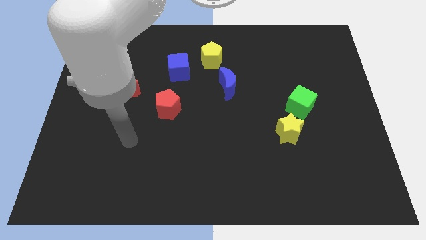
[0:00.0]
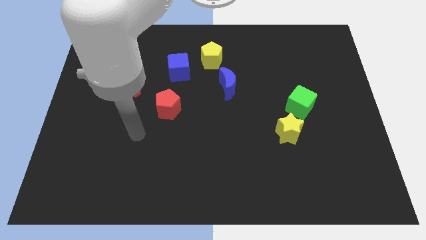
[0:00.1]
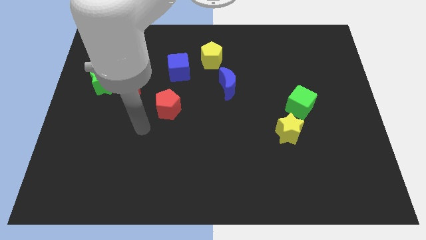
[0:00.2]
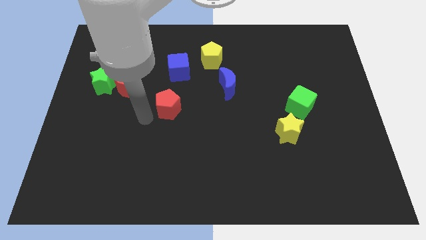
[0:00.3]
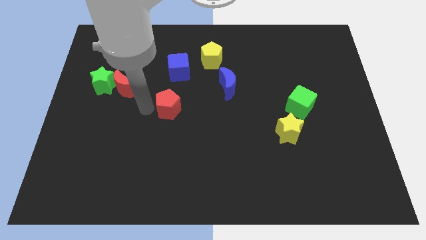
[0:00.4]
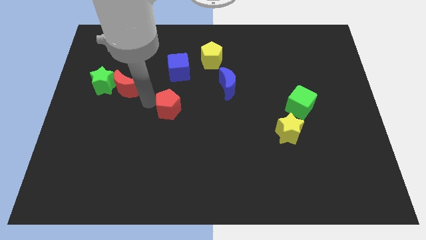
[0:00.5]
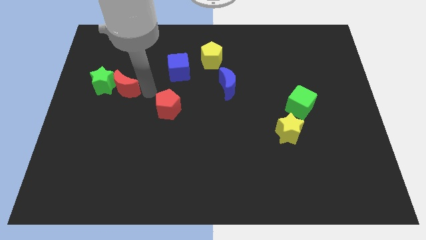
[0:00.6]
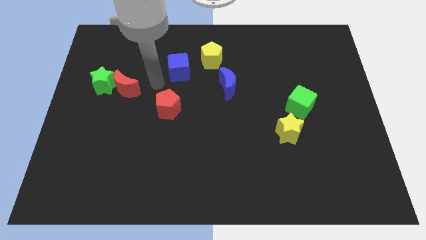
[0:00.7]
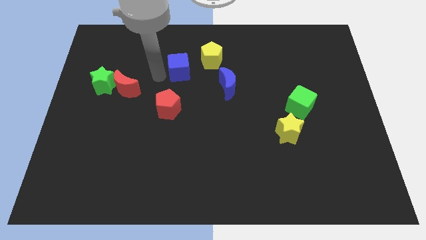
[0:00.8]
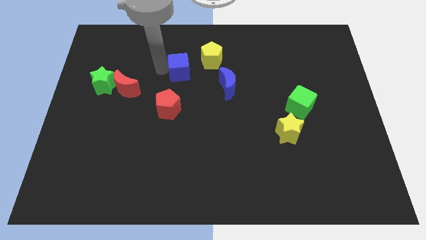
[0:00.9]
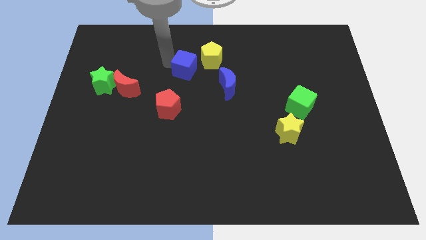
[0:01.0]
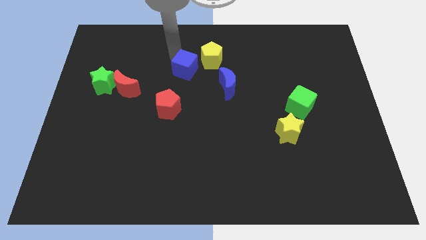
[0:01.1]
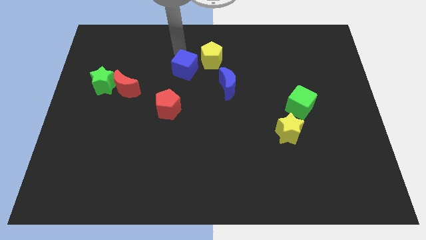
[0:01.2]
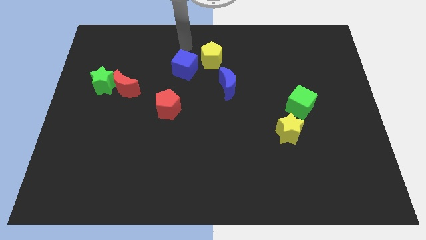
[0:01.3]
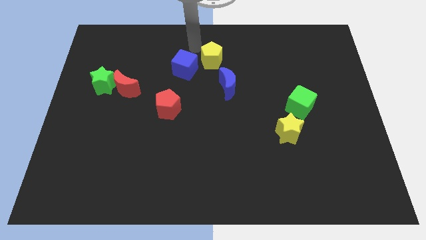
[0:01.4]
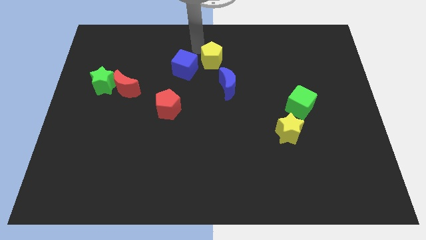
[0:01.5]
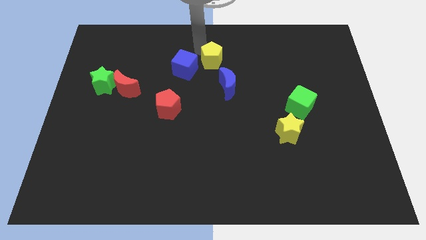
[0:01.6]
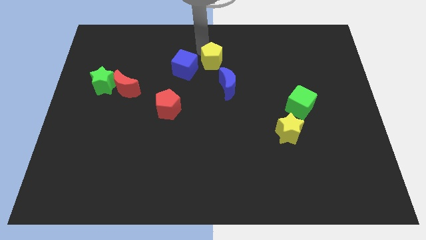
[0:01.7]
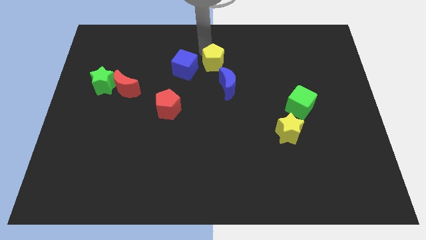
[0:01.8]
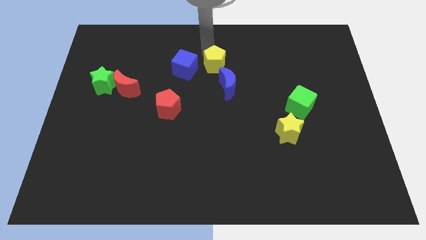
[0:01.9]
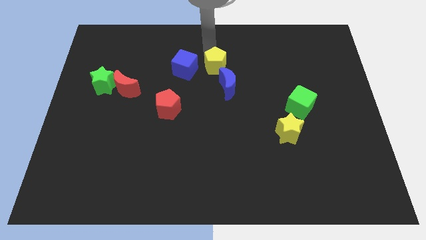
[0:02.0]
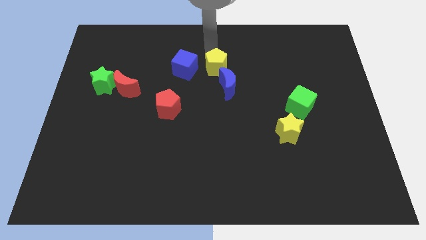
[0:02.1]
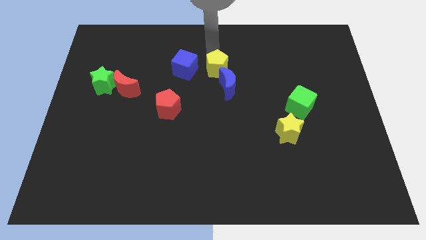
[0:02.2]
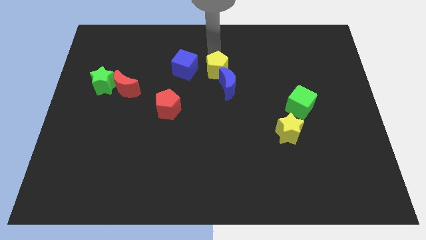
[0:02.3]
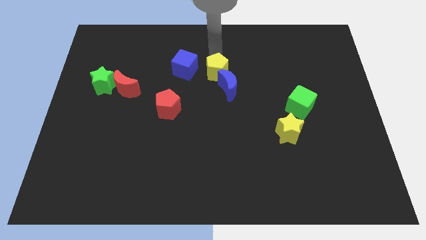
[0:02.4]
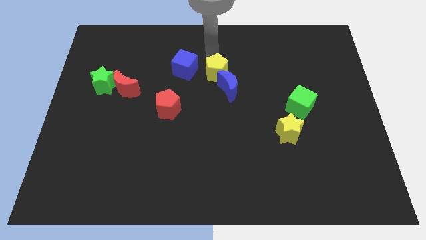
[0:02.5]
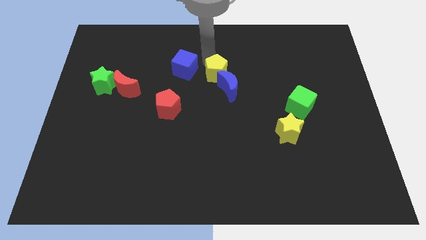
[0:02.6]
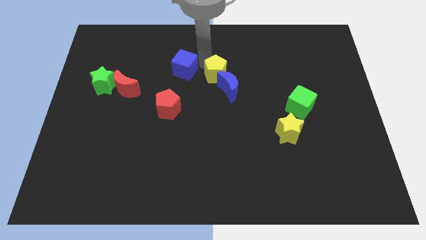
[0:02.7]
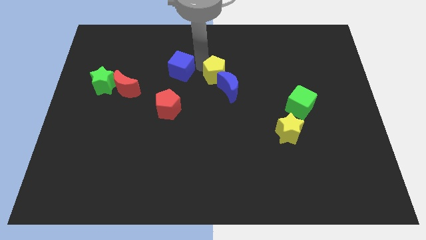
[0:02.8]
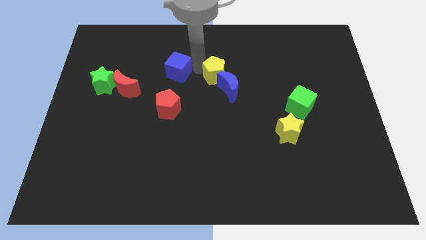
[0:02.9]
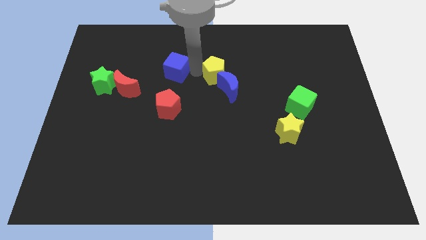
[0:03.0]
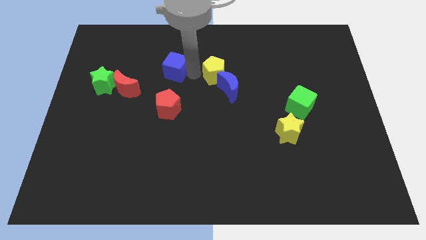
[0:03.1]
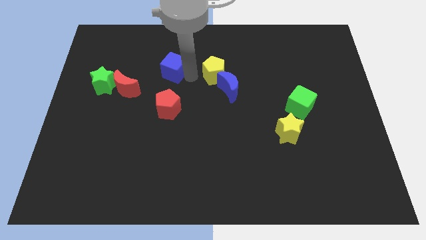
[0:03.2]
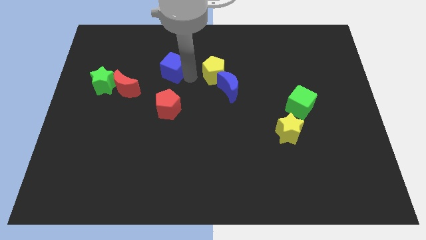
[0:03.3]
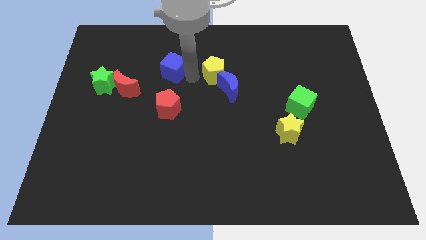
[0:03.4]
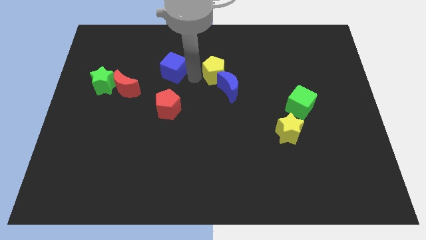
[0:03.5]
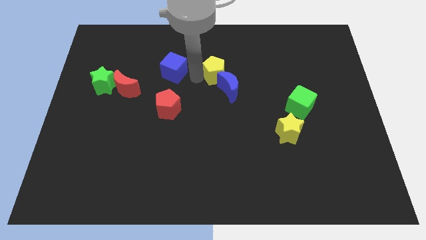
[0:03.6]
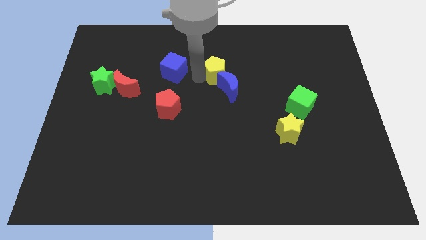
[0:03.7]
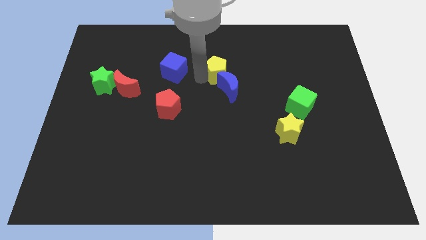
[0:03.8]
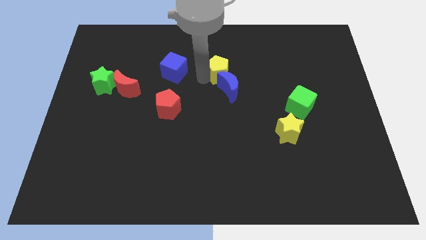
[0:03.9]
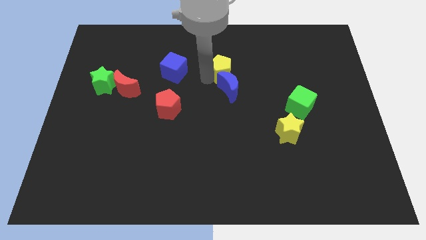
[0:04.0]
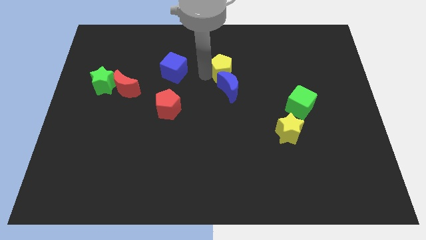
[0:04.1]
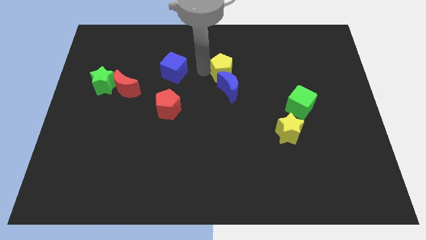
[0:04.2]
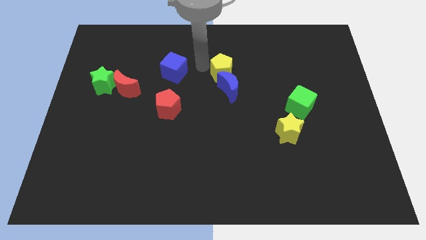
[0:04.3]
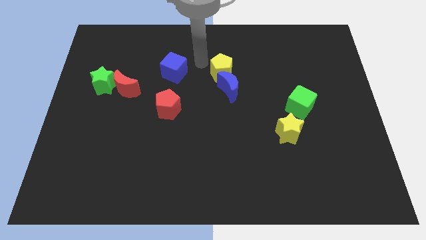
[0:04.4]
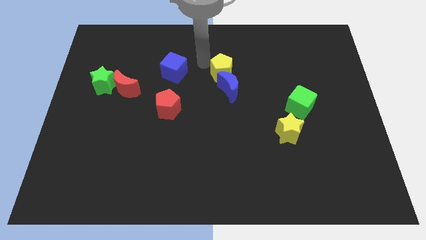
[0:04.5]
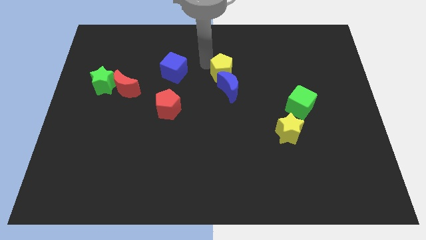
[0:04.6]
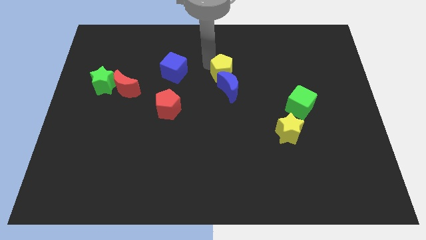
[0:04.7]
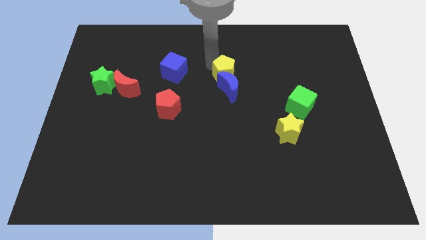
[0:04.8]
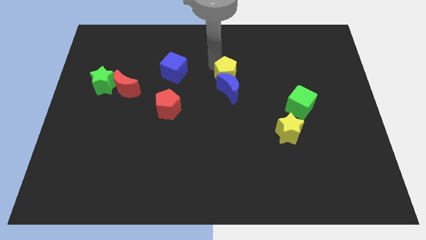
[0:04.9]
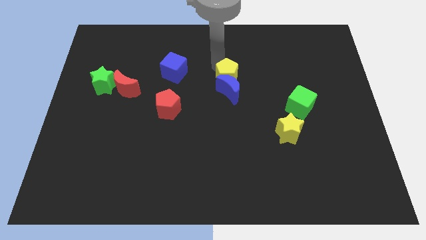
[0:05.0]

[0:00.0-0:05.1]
slightly slide the yellow pentagon down and to the right

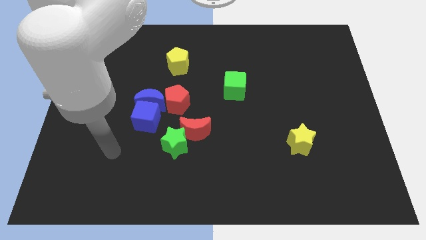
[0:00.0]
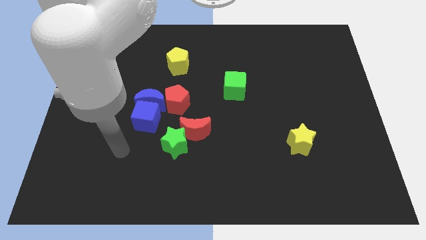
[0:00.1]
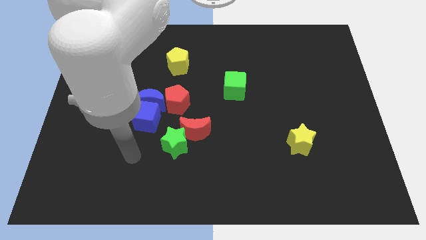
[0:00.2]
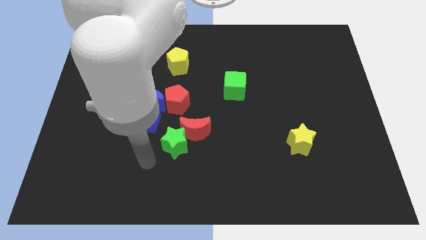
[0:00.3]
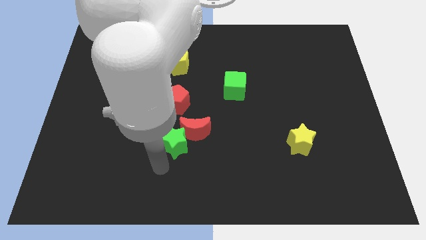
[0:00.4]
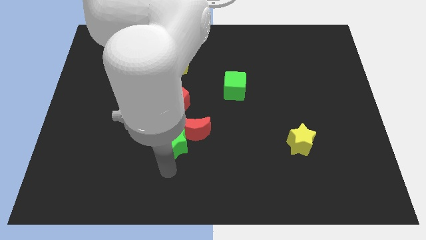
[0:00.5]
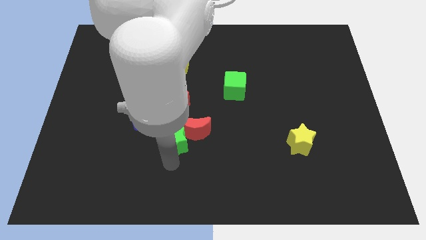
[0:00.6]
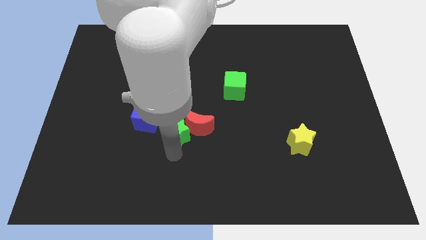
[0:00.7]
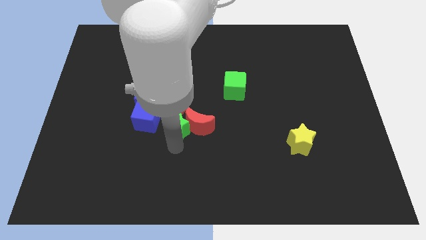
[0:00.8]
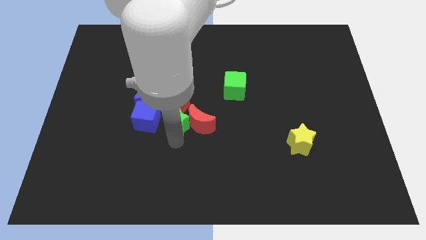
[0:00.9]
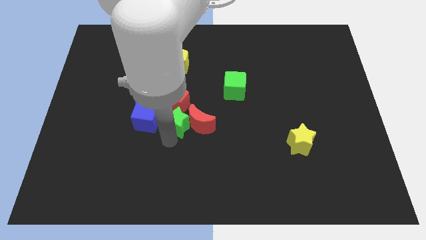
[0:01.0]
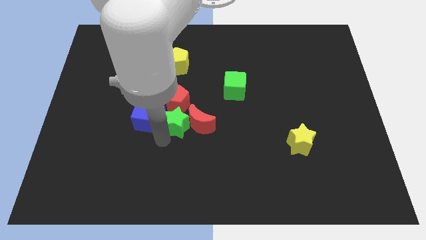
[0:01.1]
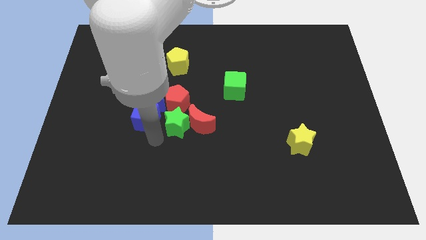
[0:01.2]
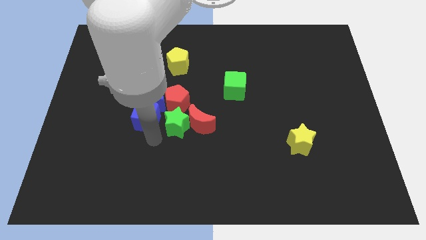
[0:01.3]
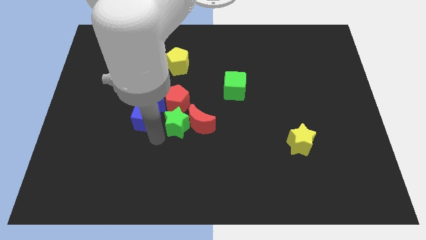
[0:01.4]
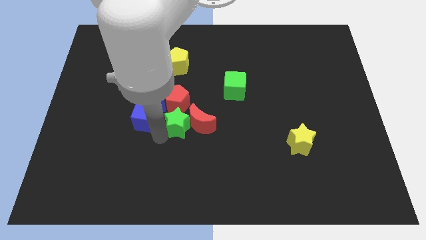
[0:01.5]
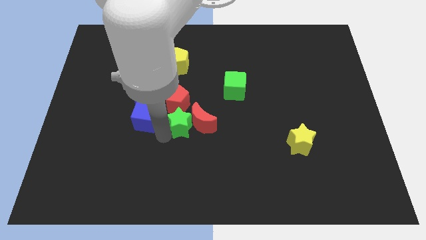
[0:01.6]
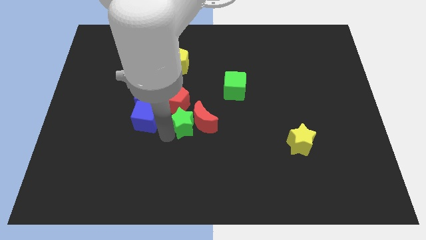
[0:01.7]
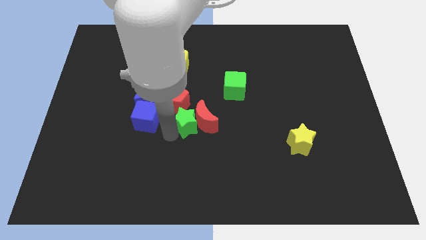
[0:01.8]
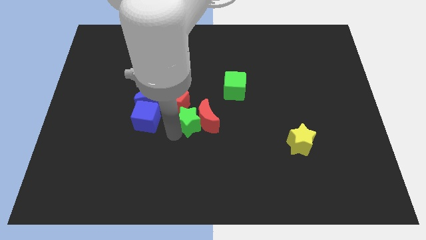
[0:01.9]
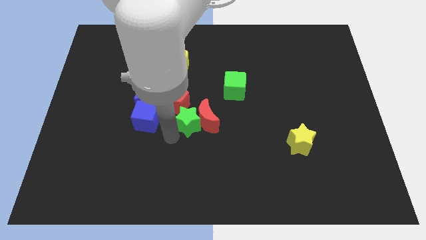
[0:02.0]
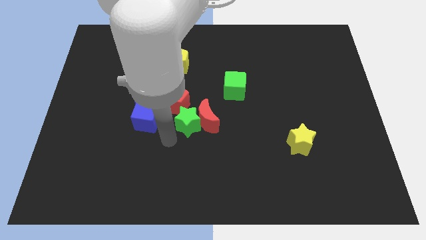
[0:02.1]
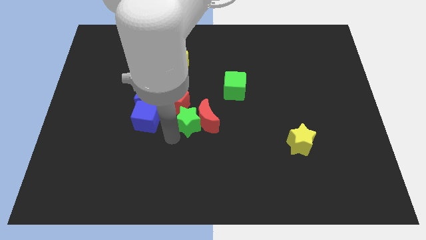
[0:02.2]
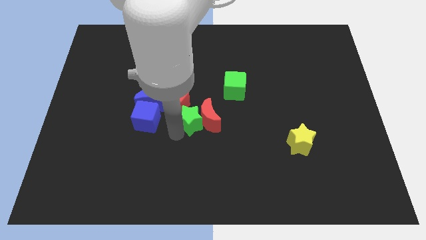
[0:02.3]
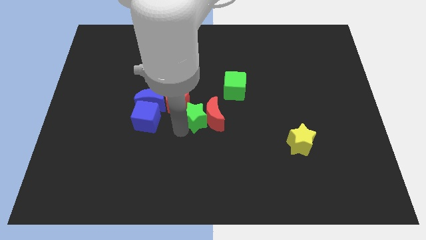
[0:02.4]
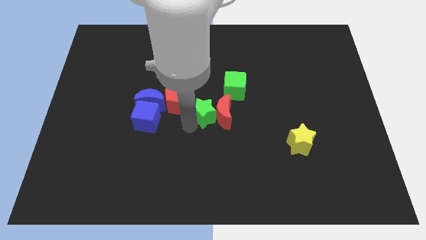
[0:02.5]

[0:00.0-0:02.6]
slide the green star upwards slightly

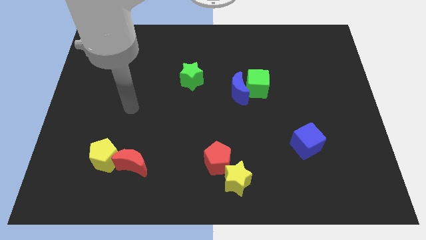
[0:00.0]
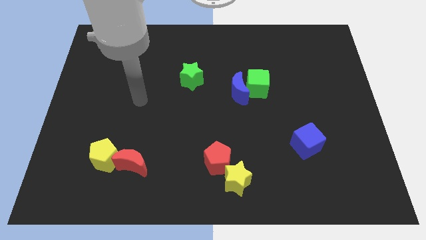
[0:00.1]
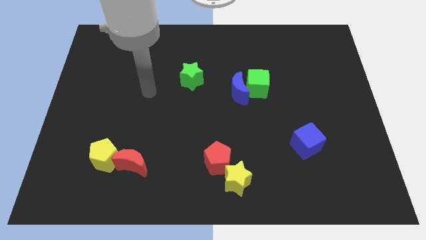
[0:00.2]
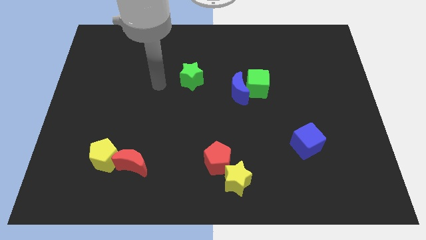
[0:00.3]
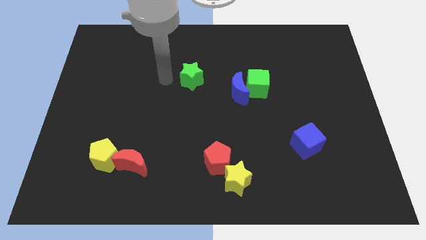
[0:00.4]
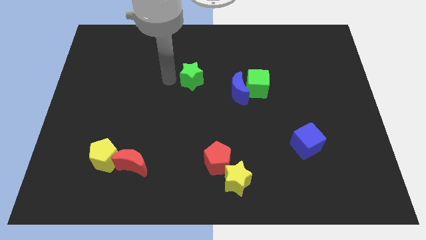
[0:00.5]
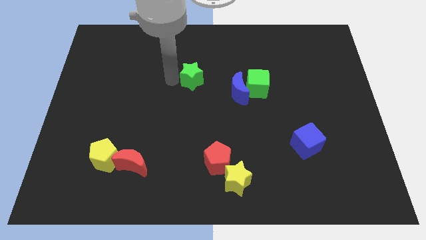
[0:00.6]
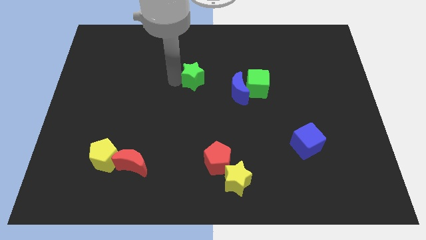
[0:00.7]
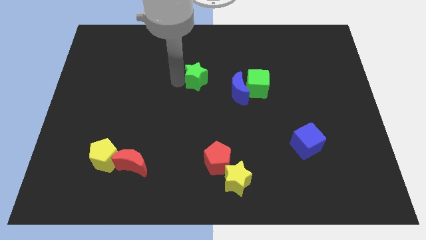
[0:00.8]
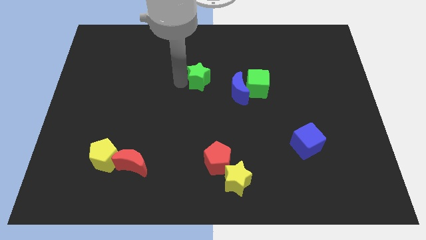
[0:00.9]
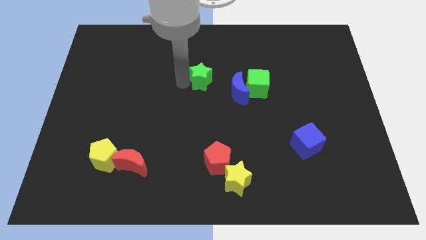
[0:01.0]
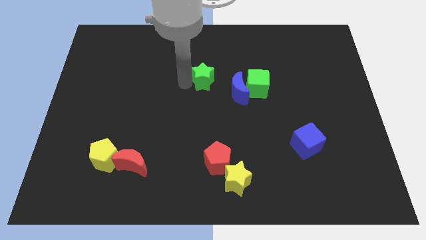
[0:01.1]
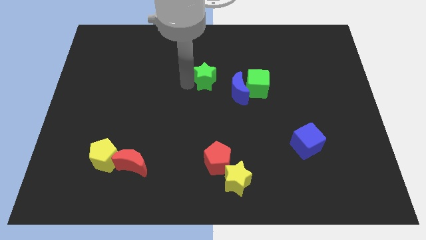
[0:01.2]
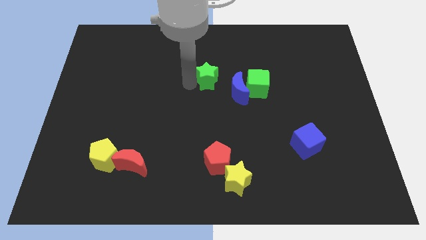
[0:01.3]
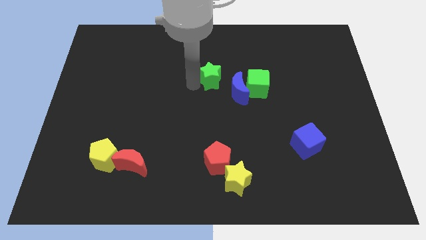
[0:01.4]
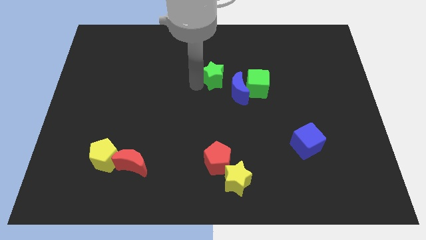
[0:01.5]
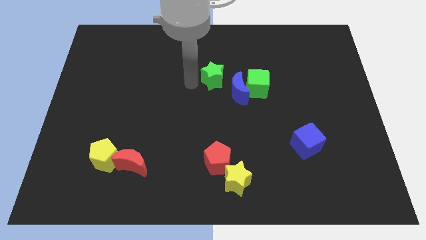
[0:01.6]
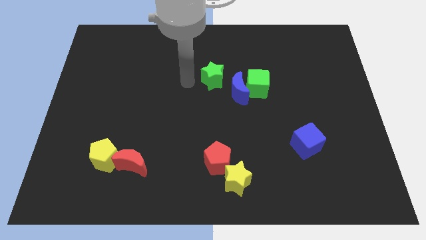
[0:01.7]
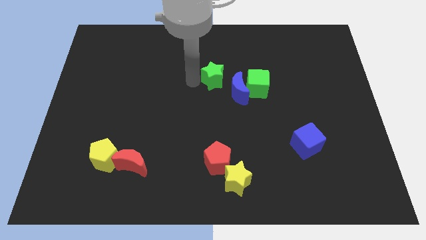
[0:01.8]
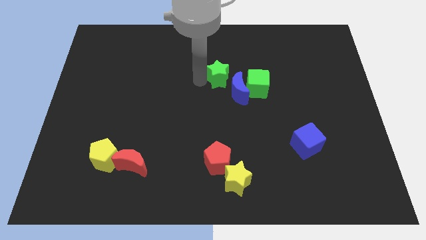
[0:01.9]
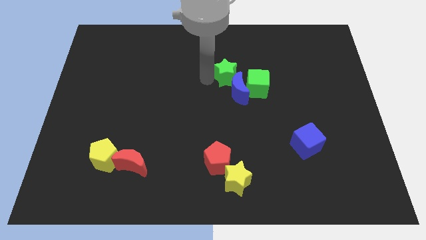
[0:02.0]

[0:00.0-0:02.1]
push the green star right a little
